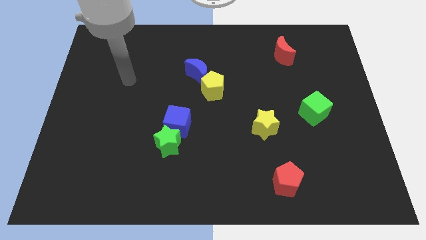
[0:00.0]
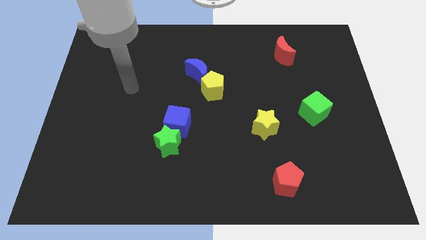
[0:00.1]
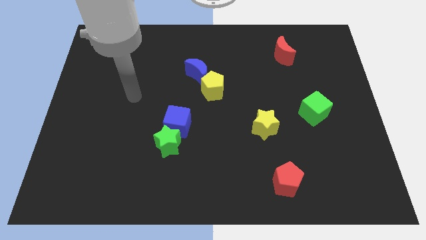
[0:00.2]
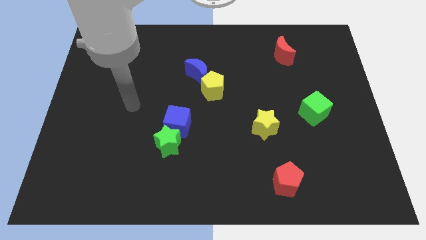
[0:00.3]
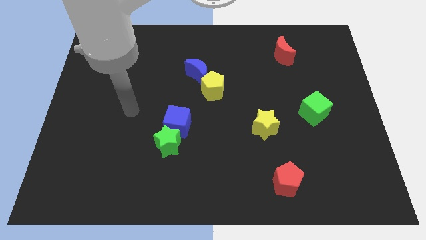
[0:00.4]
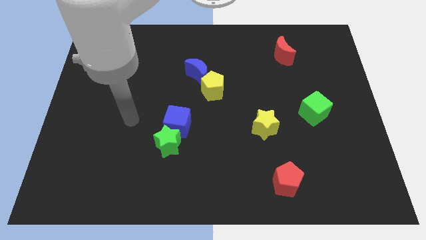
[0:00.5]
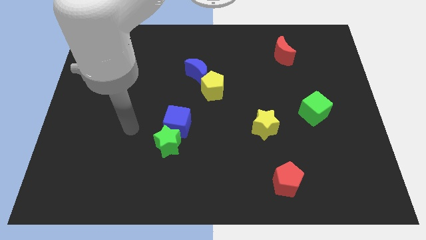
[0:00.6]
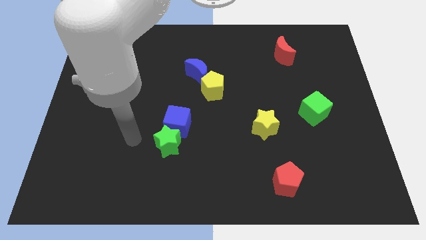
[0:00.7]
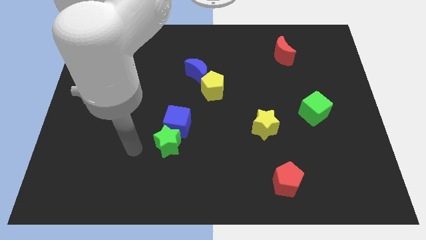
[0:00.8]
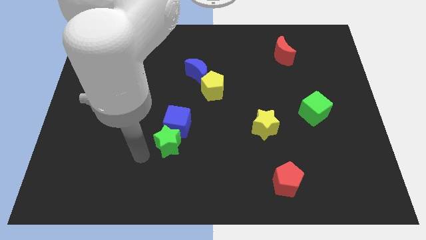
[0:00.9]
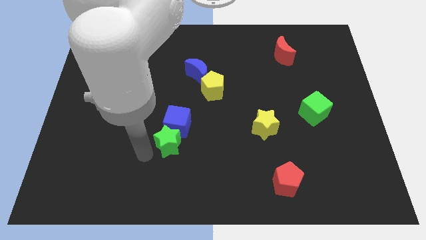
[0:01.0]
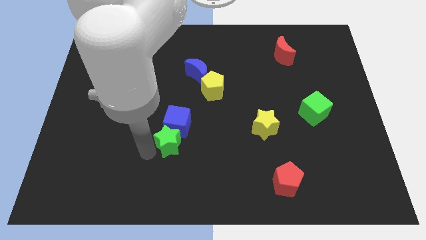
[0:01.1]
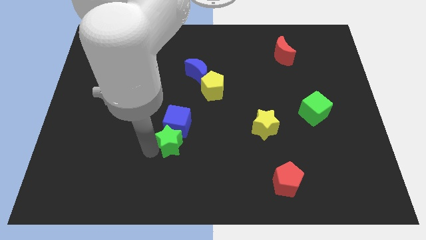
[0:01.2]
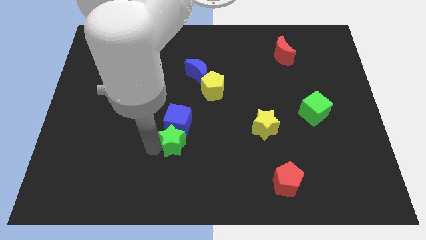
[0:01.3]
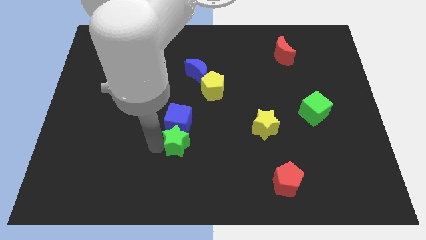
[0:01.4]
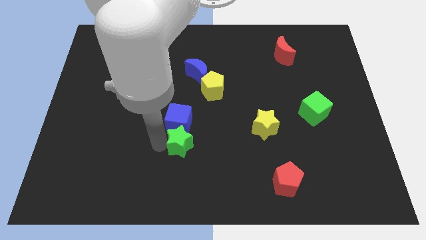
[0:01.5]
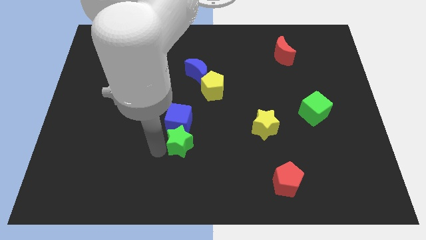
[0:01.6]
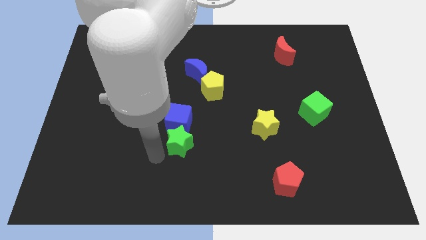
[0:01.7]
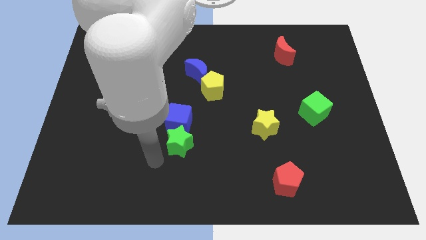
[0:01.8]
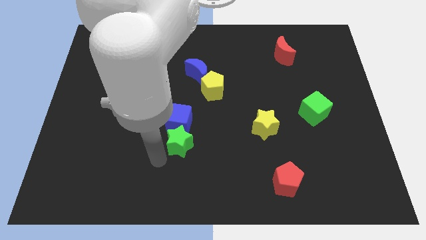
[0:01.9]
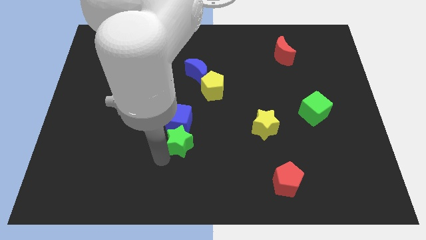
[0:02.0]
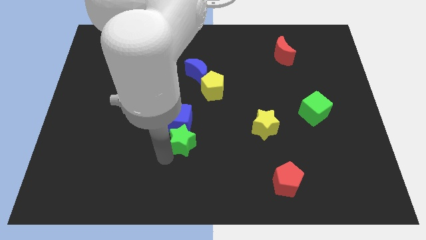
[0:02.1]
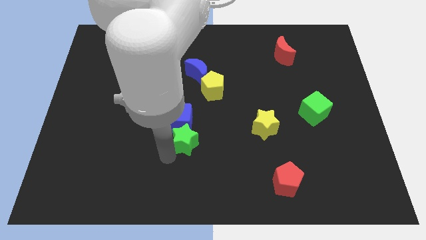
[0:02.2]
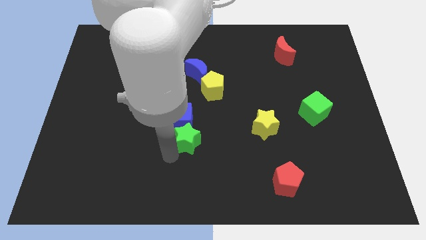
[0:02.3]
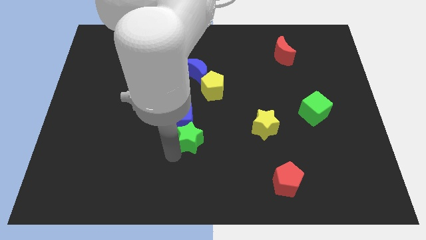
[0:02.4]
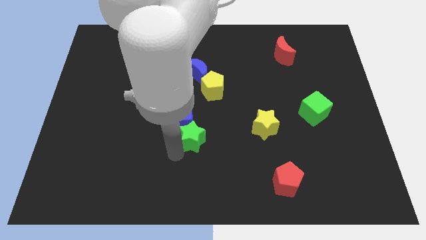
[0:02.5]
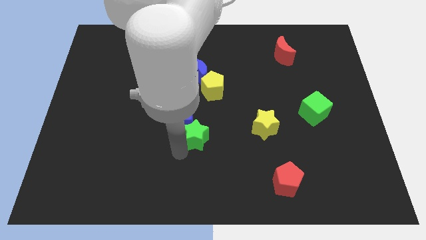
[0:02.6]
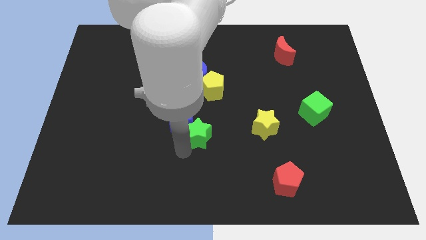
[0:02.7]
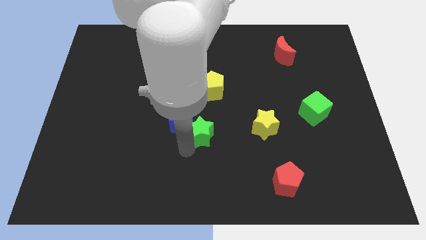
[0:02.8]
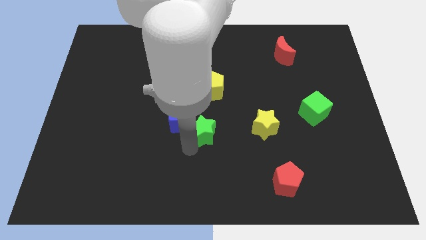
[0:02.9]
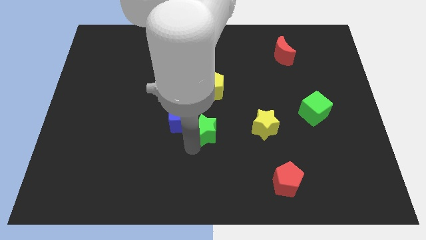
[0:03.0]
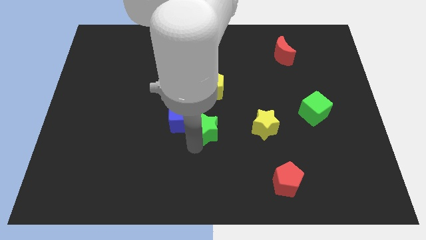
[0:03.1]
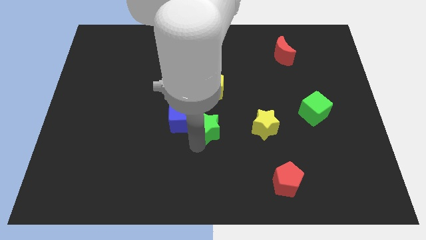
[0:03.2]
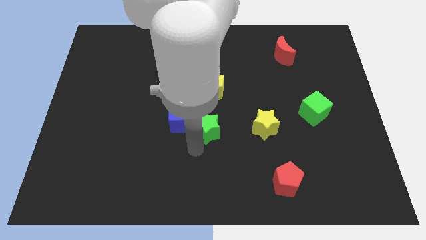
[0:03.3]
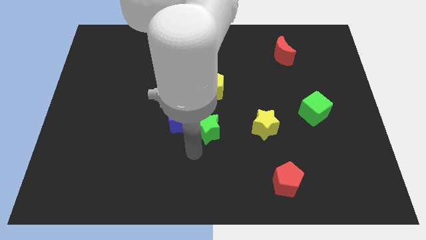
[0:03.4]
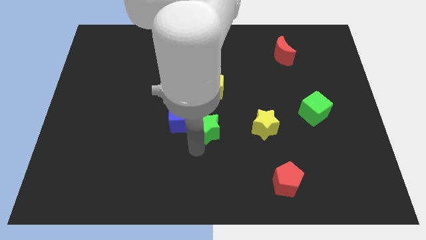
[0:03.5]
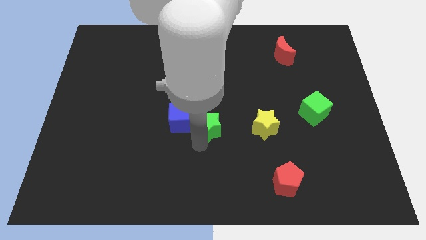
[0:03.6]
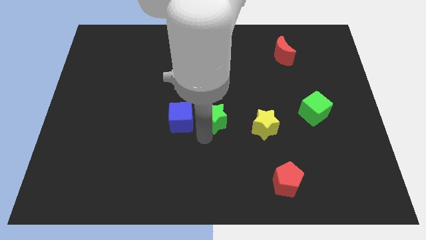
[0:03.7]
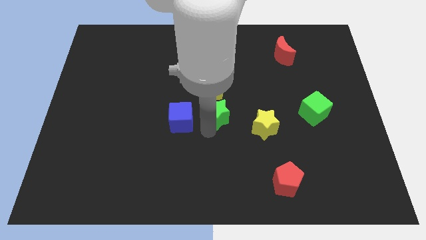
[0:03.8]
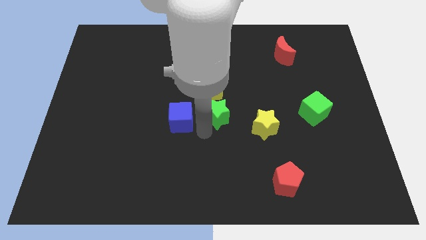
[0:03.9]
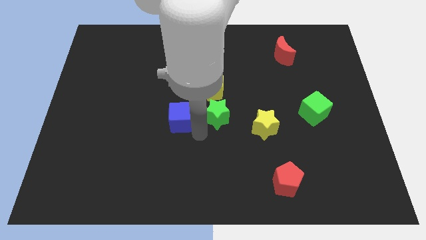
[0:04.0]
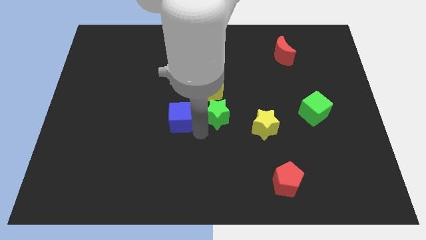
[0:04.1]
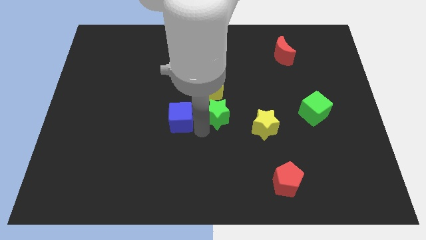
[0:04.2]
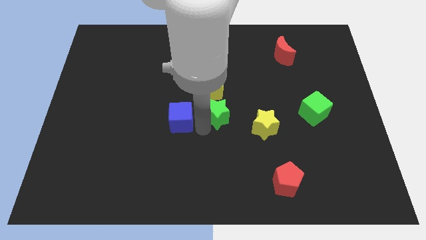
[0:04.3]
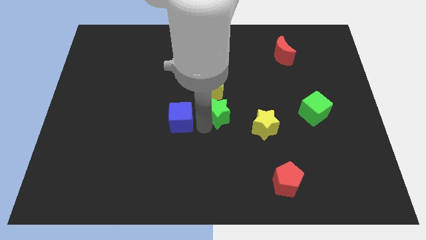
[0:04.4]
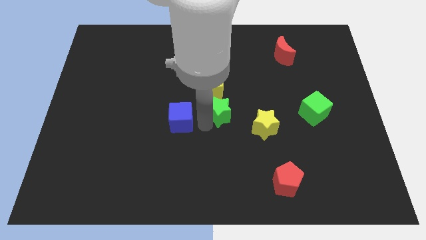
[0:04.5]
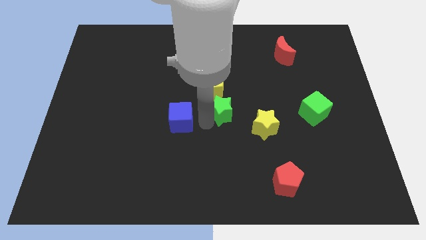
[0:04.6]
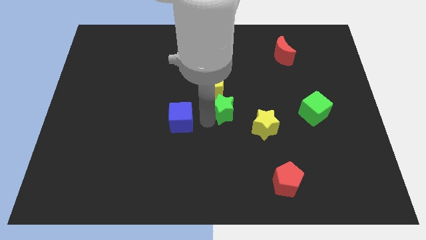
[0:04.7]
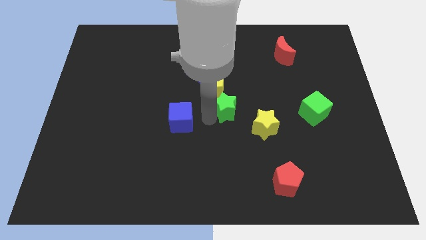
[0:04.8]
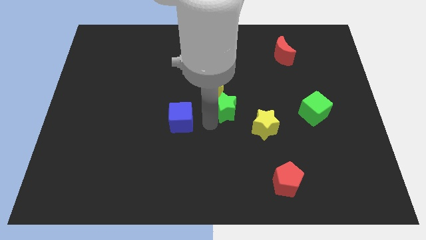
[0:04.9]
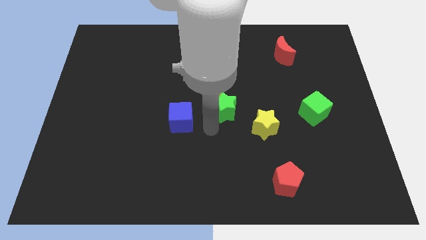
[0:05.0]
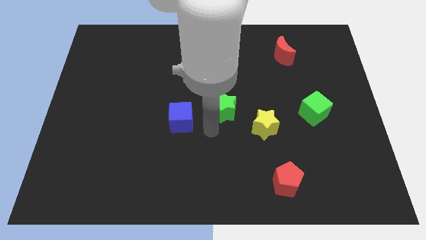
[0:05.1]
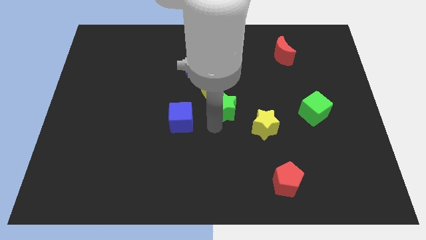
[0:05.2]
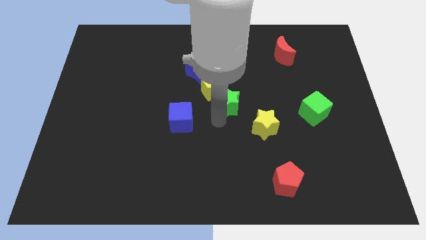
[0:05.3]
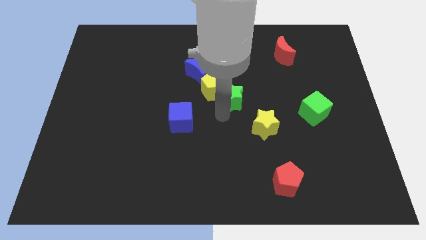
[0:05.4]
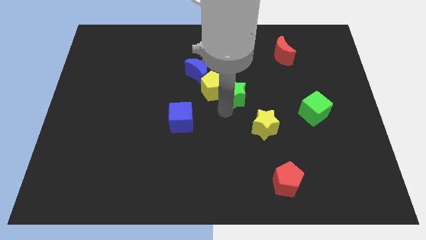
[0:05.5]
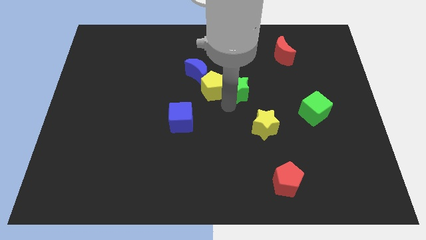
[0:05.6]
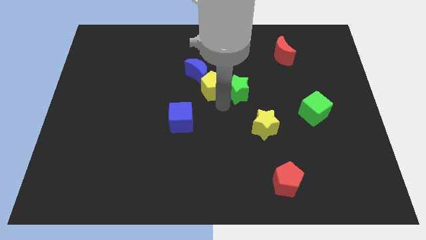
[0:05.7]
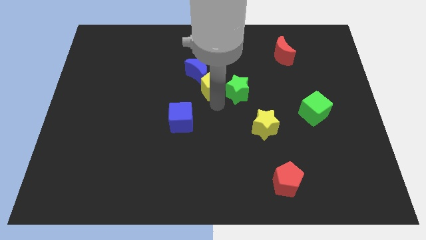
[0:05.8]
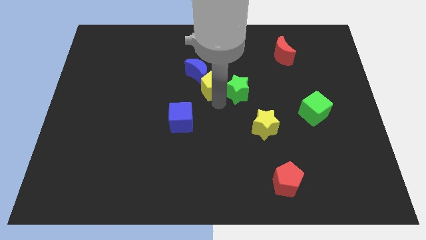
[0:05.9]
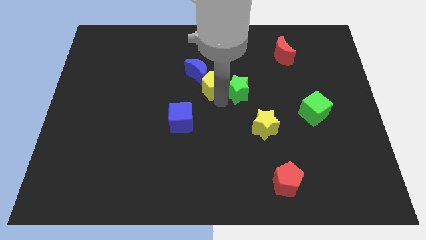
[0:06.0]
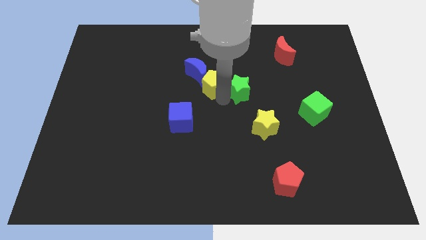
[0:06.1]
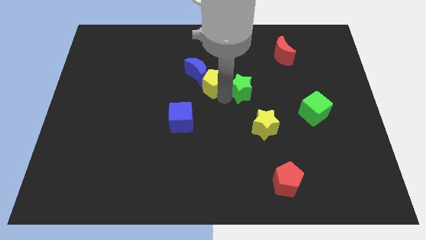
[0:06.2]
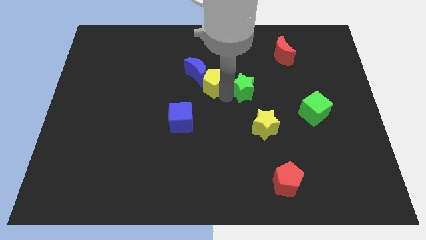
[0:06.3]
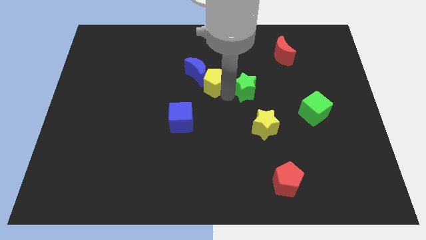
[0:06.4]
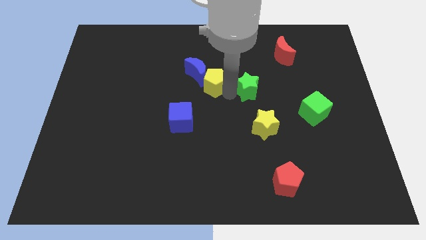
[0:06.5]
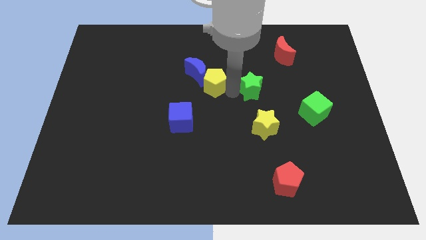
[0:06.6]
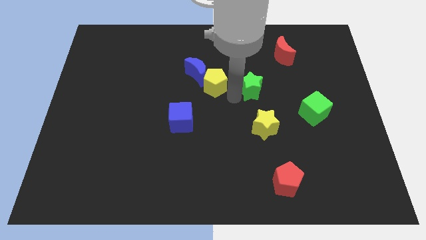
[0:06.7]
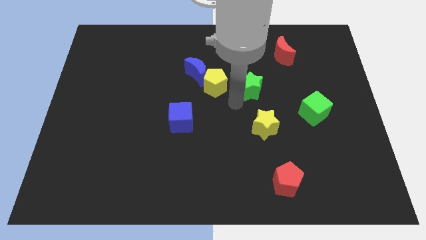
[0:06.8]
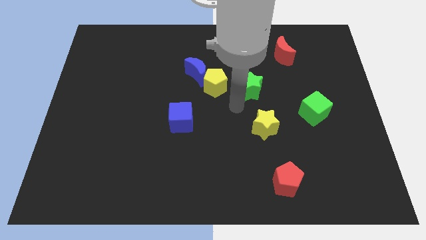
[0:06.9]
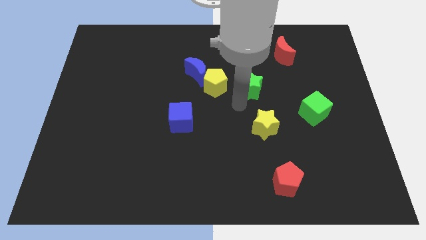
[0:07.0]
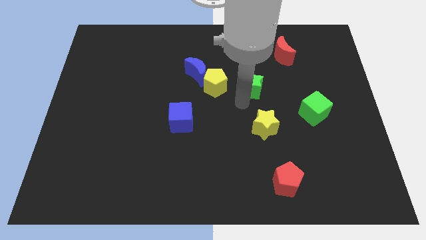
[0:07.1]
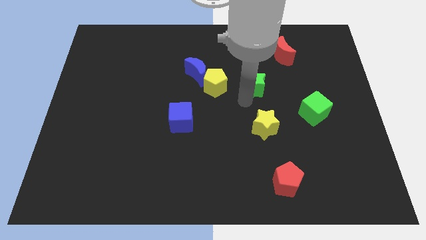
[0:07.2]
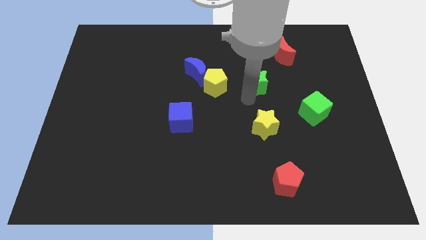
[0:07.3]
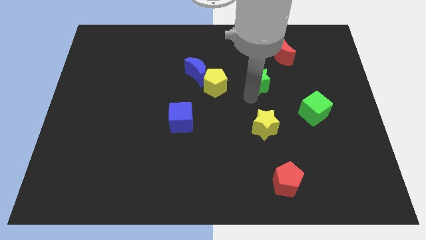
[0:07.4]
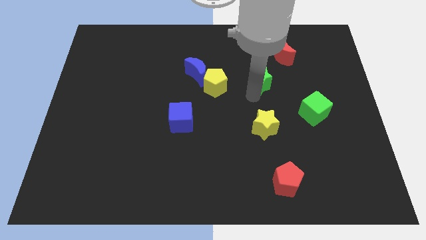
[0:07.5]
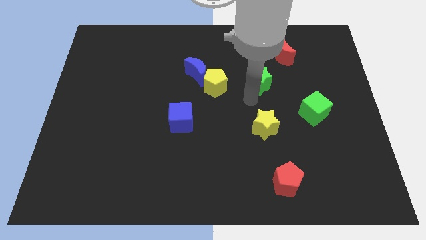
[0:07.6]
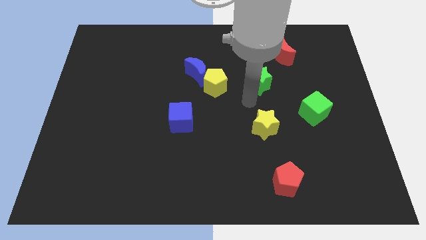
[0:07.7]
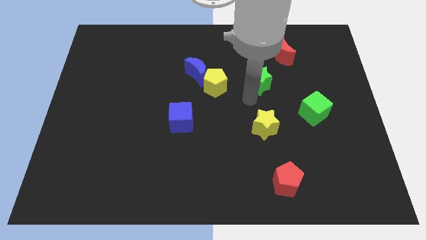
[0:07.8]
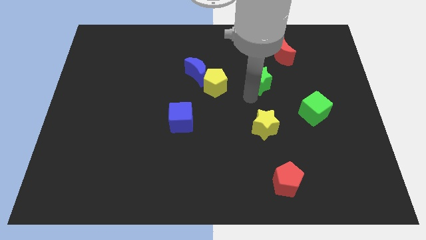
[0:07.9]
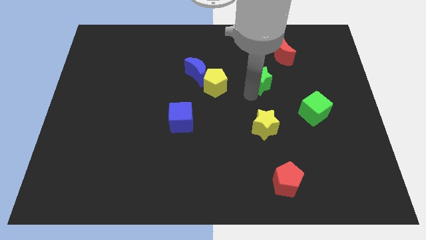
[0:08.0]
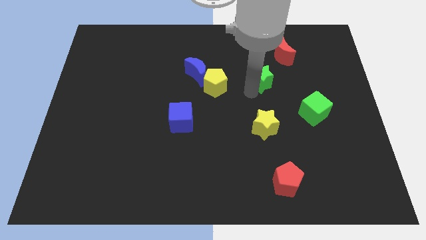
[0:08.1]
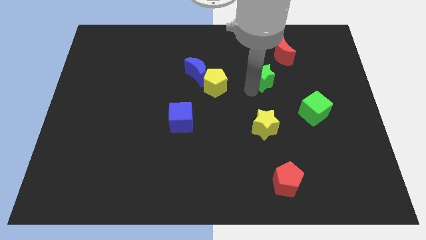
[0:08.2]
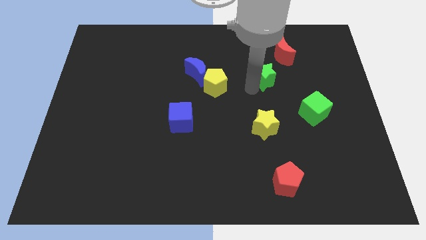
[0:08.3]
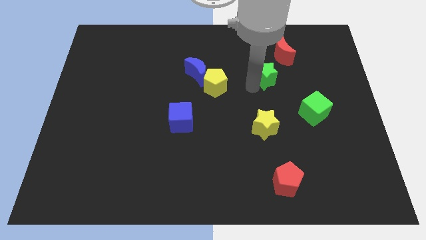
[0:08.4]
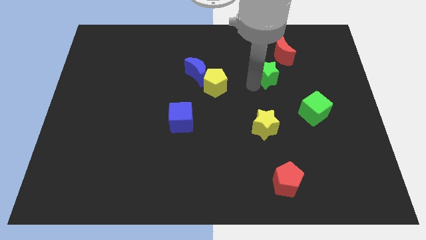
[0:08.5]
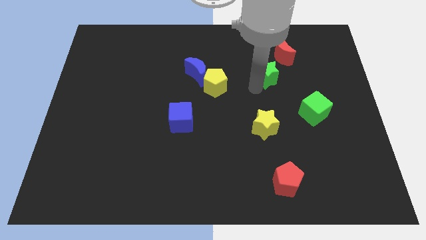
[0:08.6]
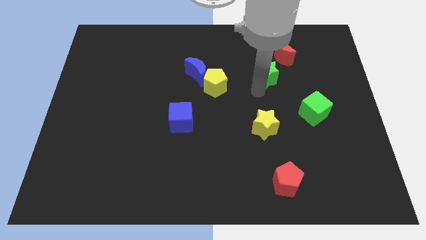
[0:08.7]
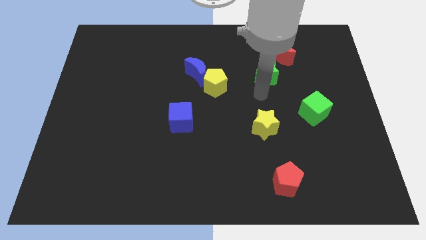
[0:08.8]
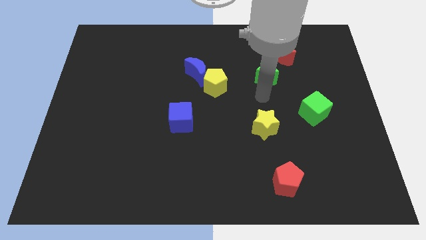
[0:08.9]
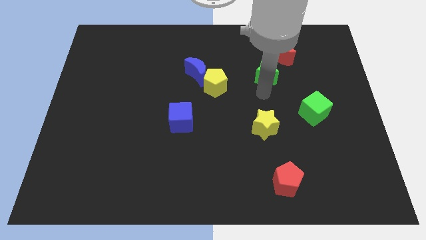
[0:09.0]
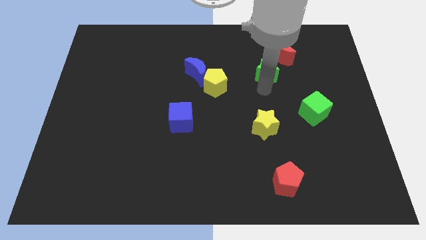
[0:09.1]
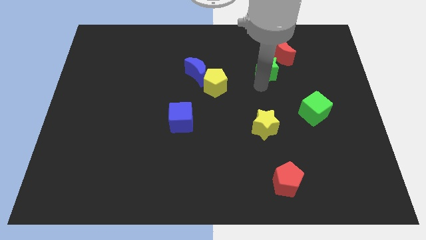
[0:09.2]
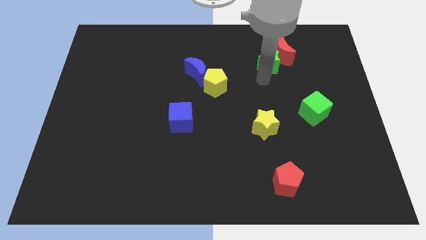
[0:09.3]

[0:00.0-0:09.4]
push the green star to the red moon
